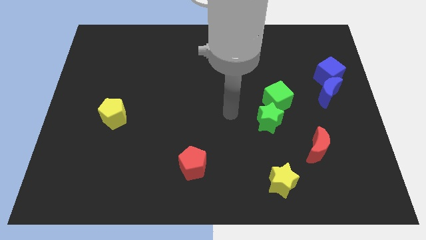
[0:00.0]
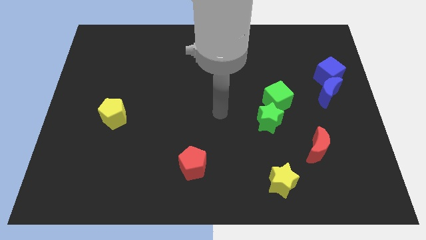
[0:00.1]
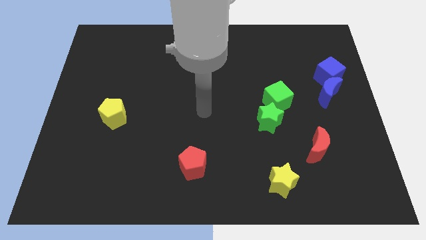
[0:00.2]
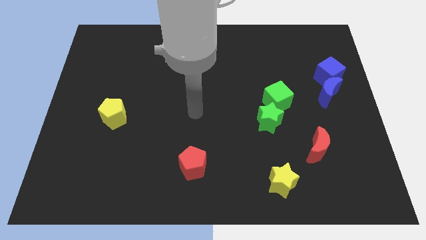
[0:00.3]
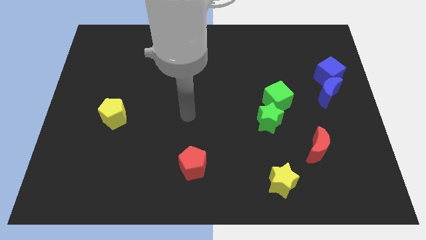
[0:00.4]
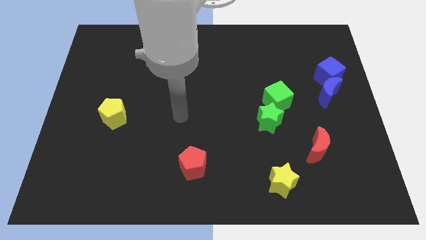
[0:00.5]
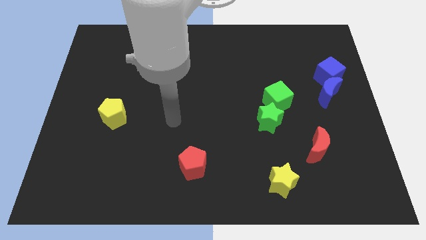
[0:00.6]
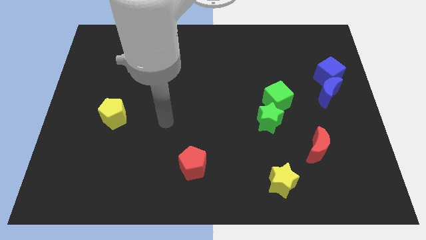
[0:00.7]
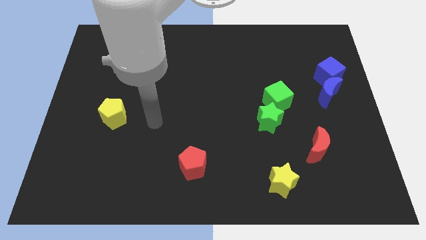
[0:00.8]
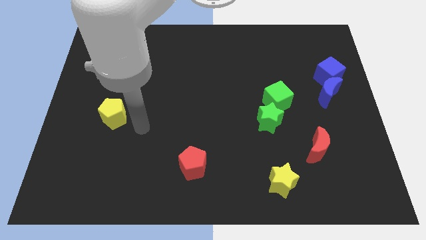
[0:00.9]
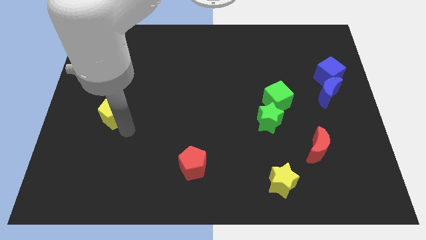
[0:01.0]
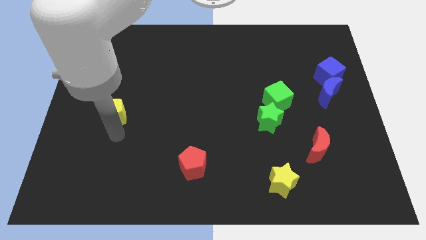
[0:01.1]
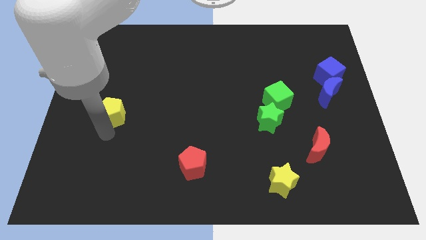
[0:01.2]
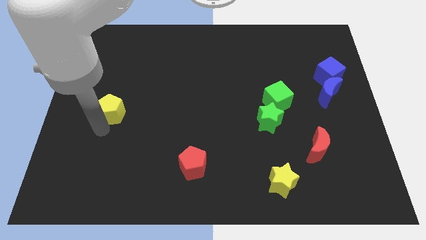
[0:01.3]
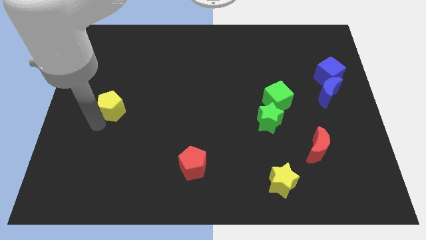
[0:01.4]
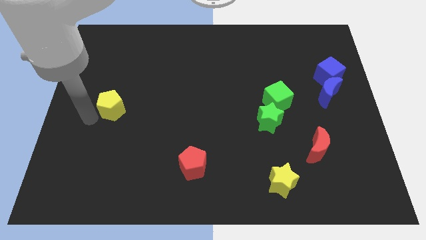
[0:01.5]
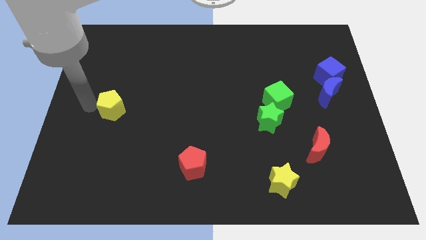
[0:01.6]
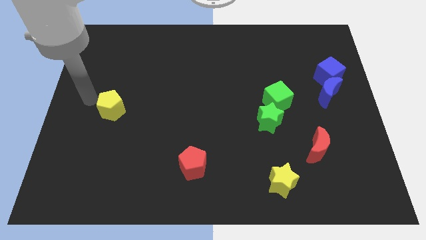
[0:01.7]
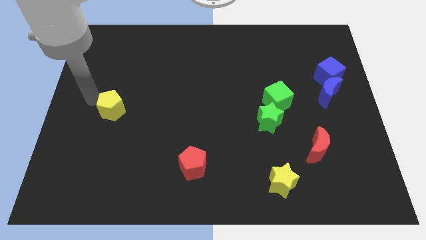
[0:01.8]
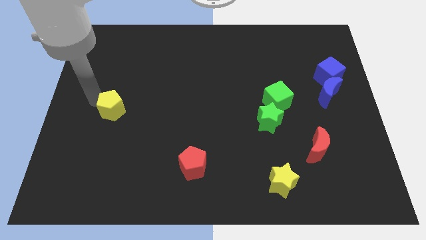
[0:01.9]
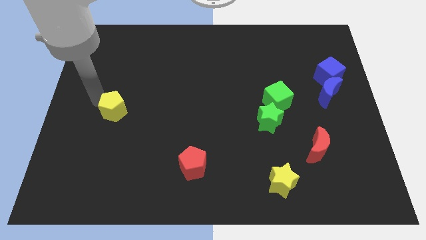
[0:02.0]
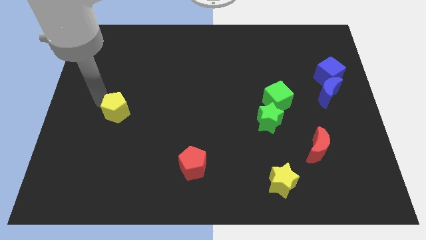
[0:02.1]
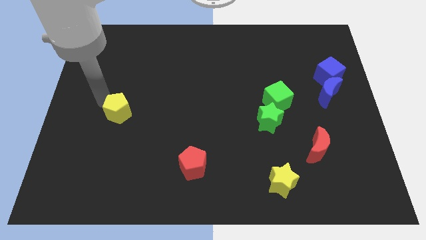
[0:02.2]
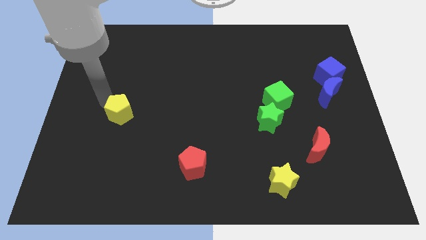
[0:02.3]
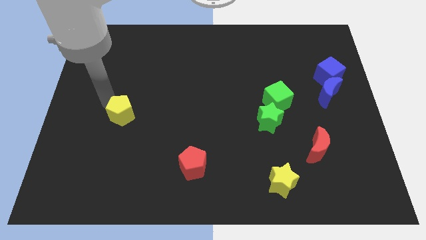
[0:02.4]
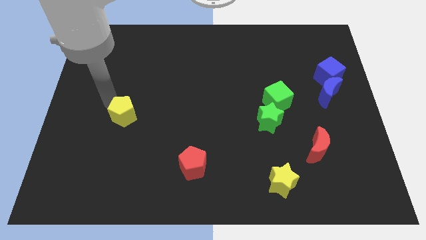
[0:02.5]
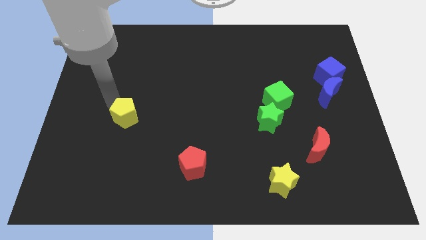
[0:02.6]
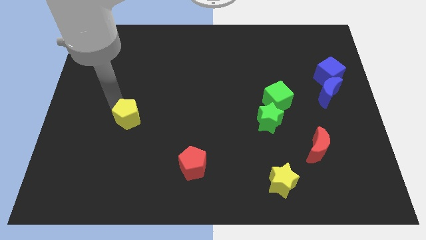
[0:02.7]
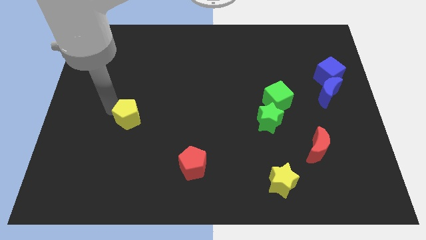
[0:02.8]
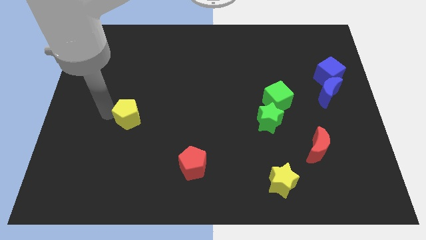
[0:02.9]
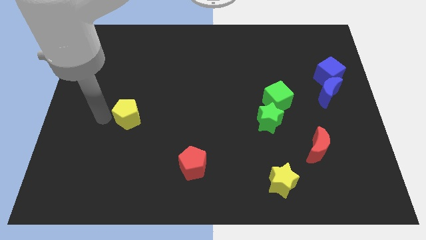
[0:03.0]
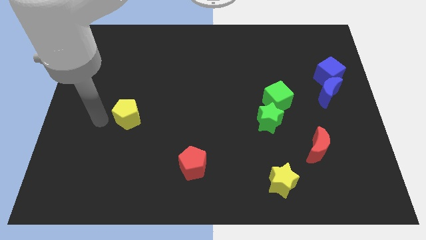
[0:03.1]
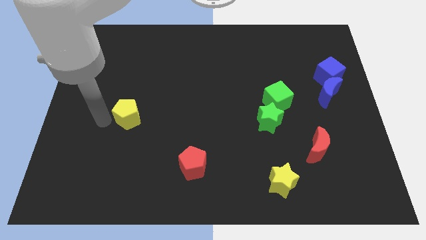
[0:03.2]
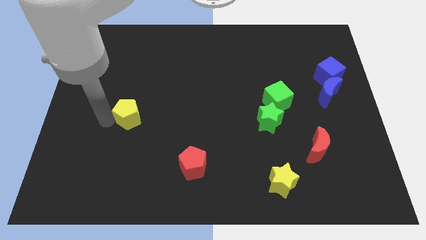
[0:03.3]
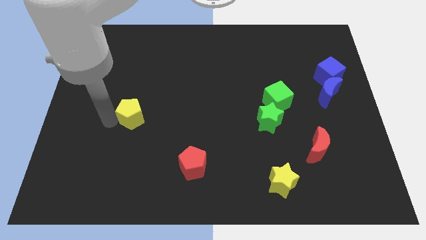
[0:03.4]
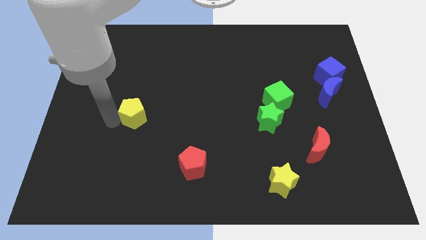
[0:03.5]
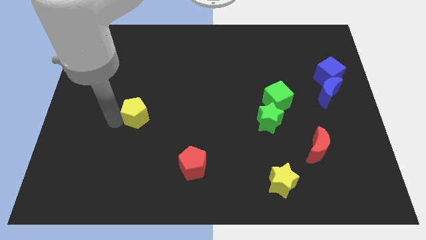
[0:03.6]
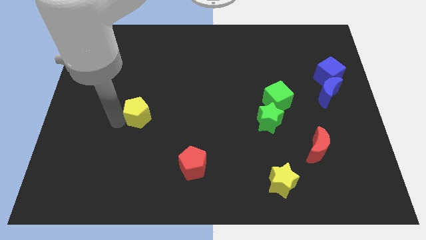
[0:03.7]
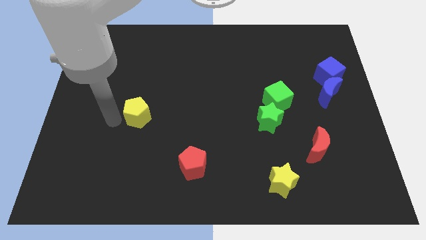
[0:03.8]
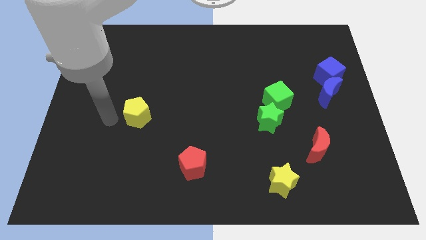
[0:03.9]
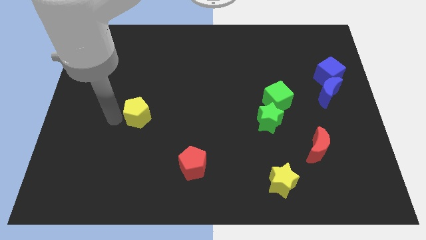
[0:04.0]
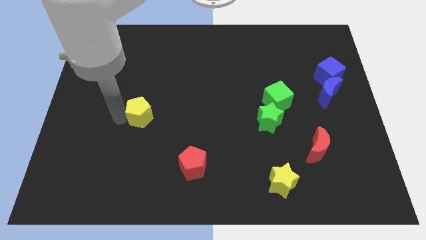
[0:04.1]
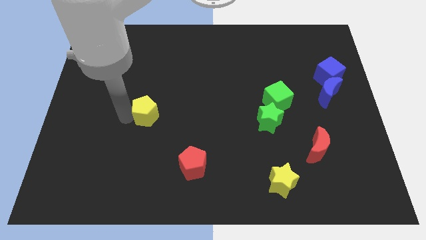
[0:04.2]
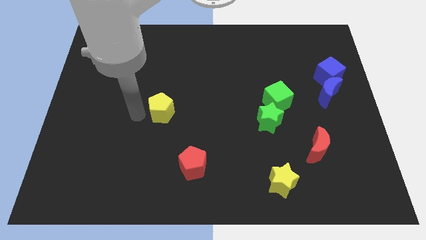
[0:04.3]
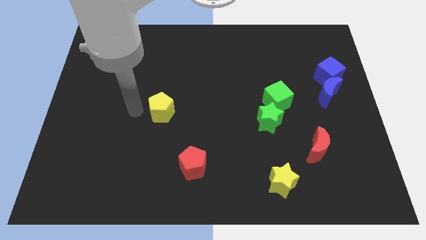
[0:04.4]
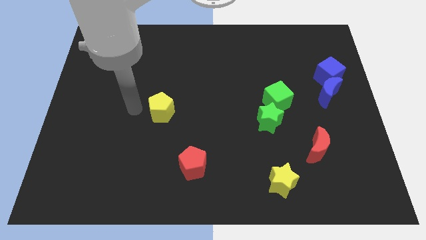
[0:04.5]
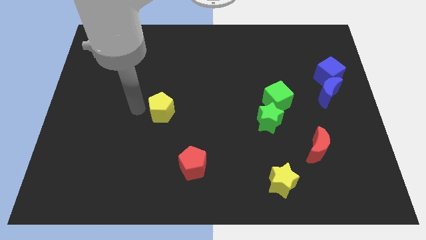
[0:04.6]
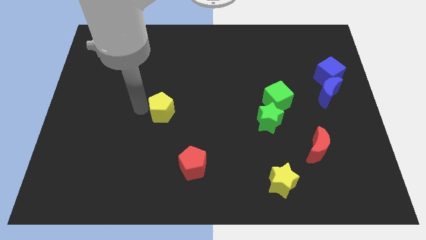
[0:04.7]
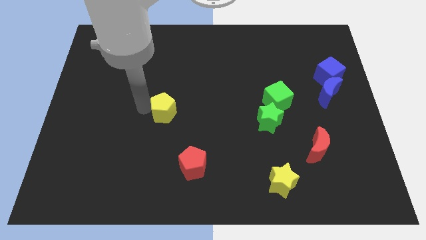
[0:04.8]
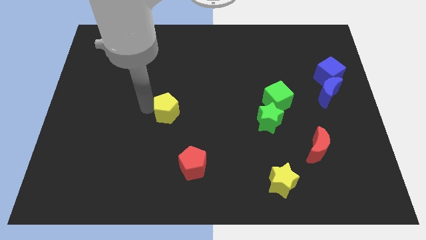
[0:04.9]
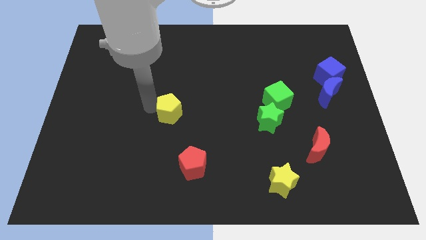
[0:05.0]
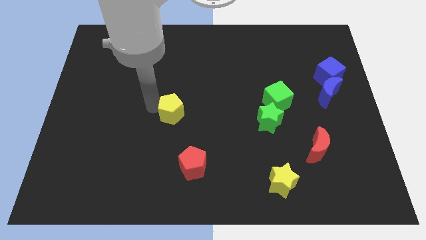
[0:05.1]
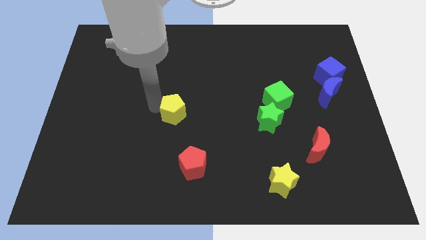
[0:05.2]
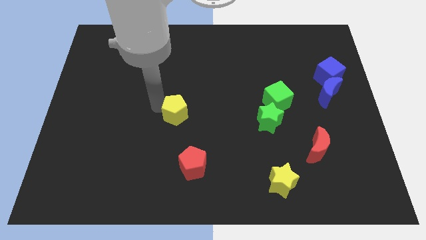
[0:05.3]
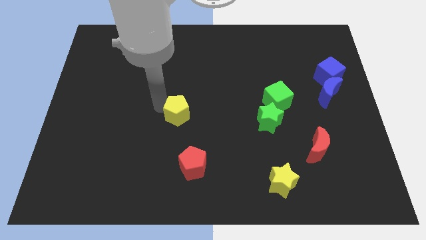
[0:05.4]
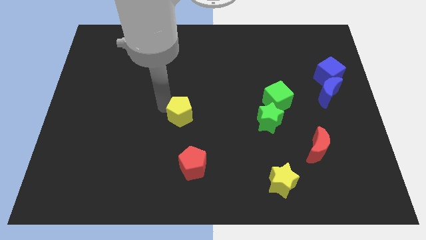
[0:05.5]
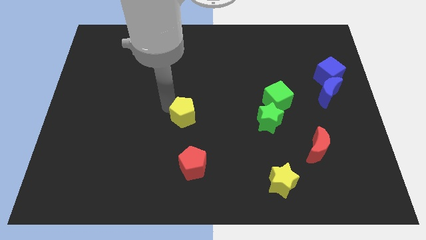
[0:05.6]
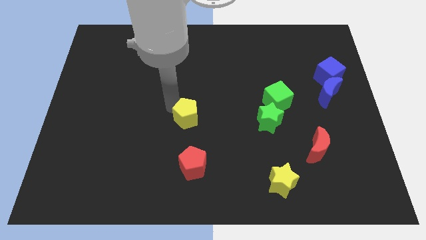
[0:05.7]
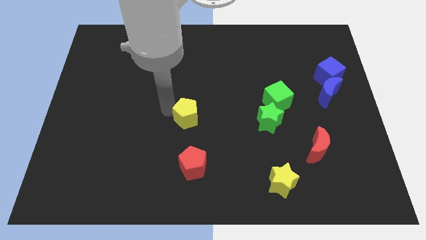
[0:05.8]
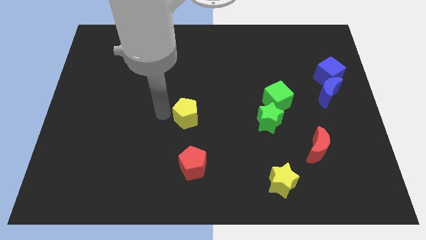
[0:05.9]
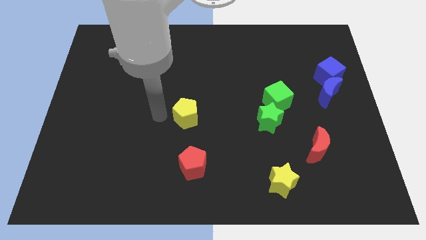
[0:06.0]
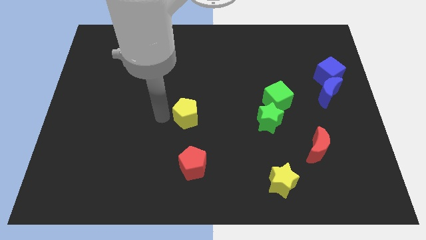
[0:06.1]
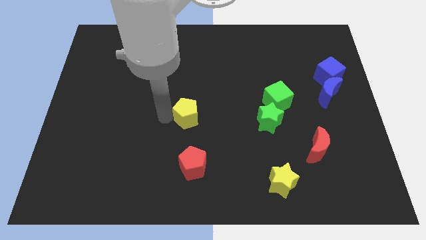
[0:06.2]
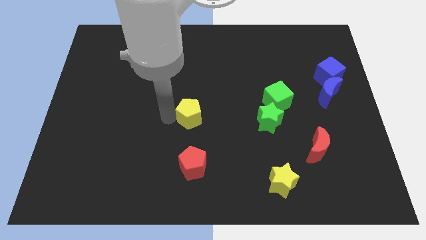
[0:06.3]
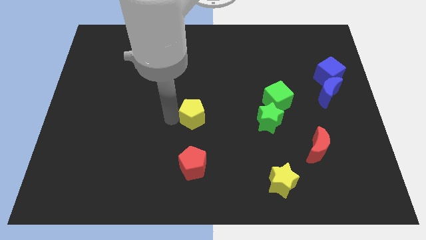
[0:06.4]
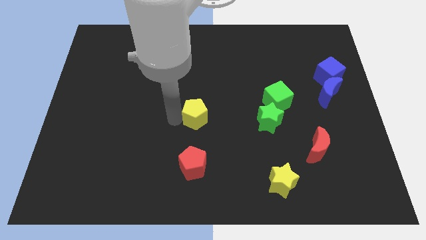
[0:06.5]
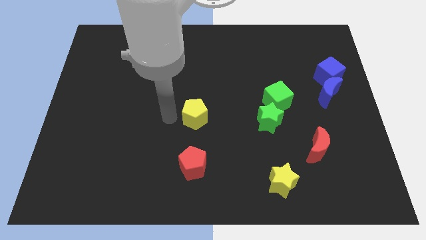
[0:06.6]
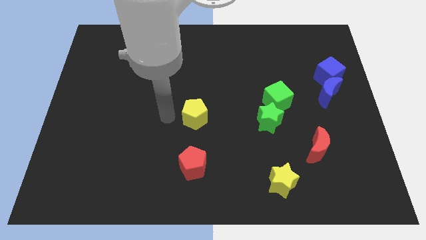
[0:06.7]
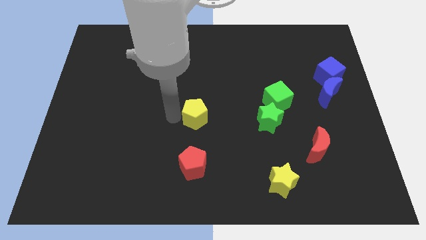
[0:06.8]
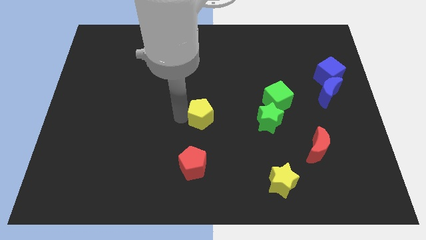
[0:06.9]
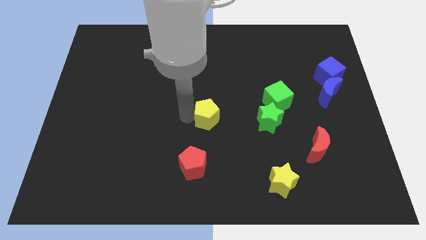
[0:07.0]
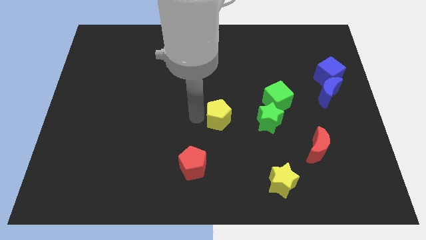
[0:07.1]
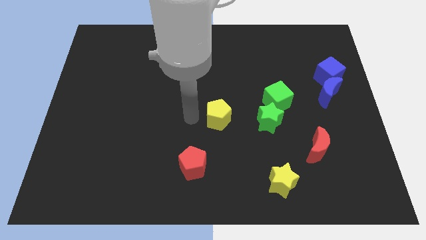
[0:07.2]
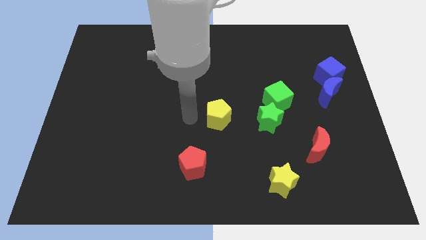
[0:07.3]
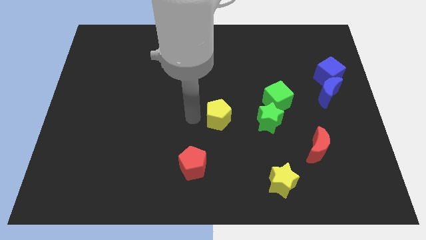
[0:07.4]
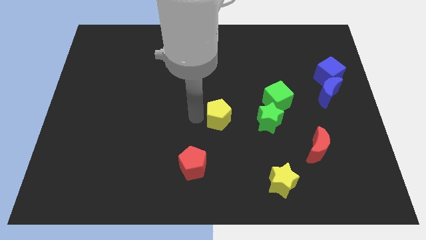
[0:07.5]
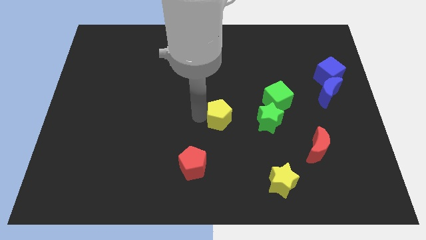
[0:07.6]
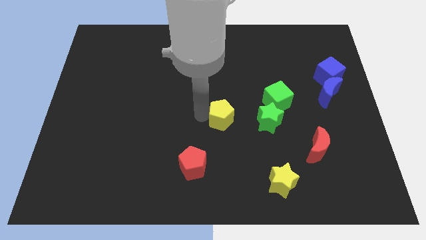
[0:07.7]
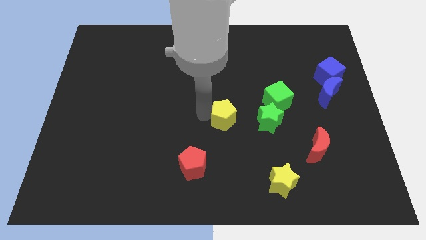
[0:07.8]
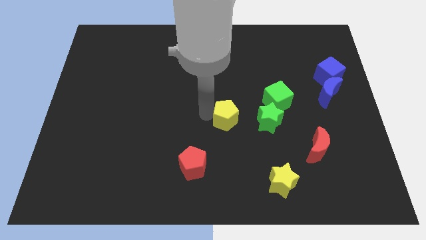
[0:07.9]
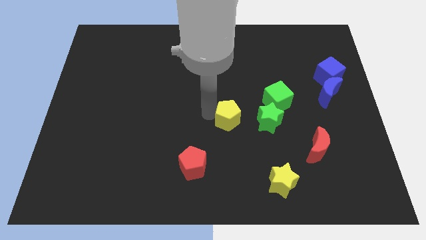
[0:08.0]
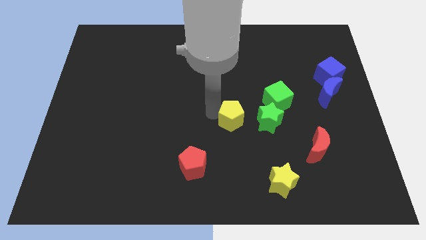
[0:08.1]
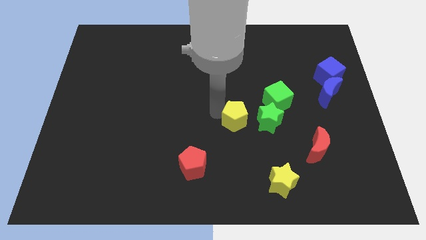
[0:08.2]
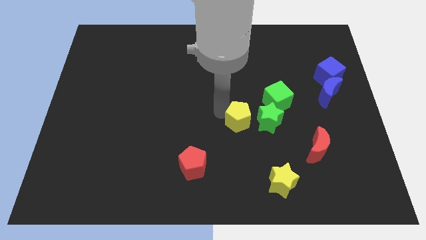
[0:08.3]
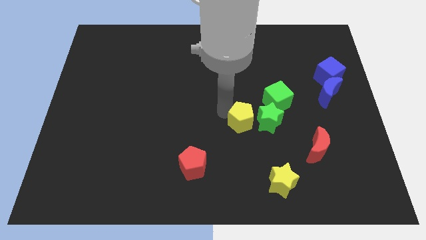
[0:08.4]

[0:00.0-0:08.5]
slide the yellow pentagon to the green star
